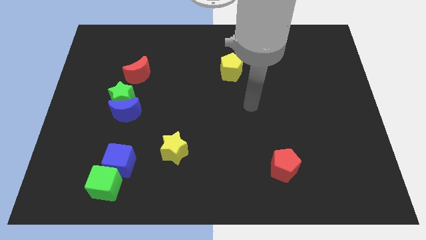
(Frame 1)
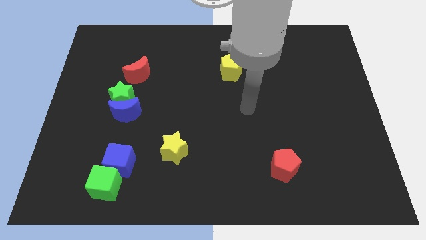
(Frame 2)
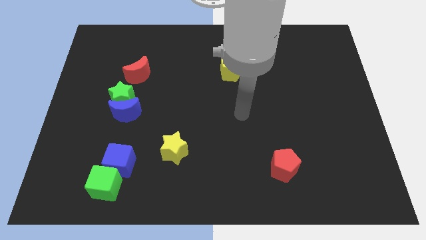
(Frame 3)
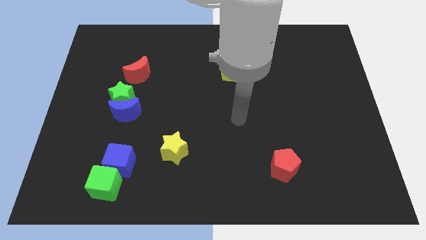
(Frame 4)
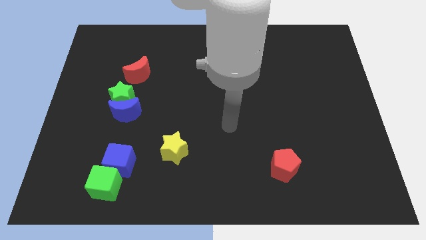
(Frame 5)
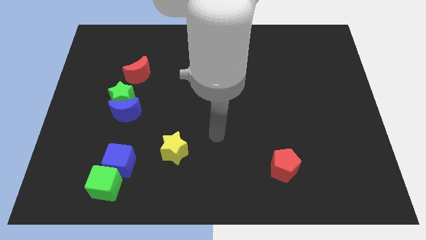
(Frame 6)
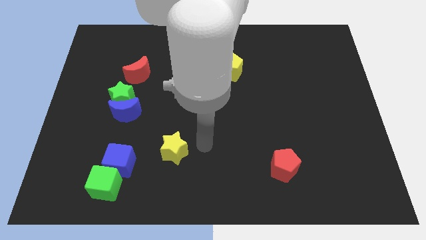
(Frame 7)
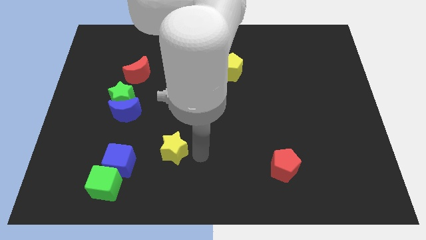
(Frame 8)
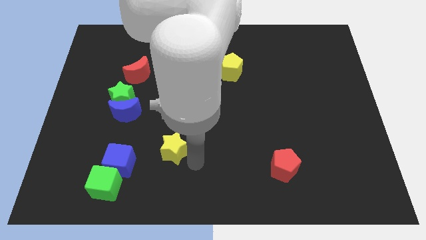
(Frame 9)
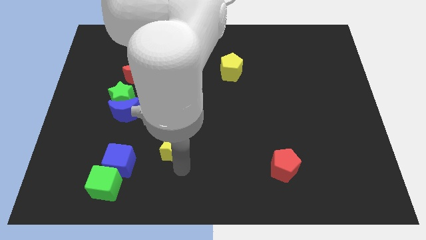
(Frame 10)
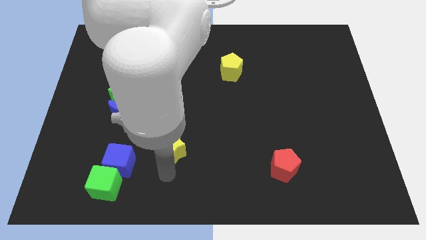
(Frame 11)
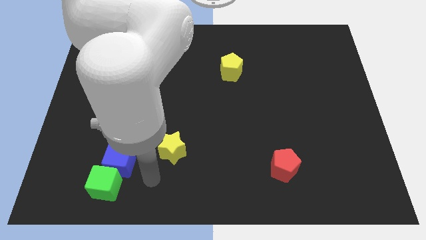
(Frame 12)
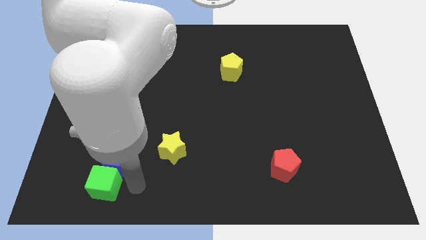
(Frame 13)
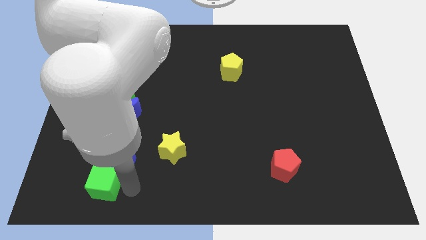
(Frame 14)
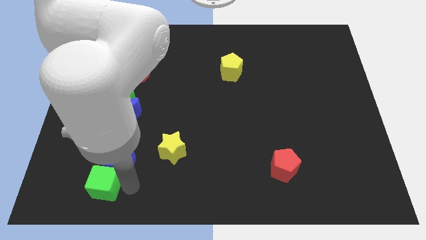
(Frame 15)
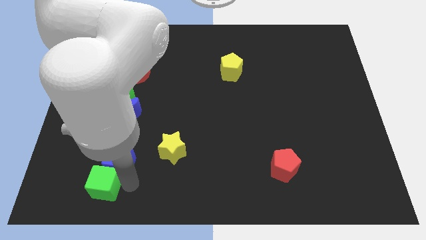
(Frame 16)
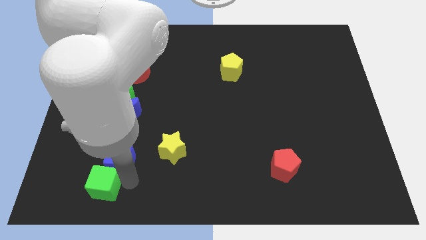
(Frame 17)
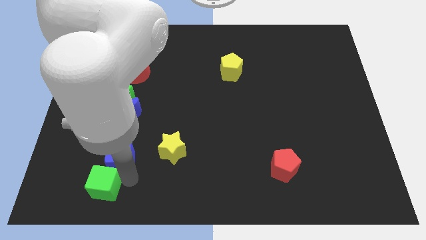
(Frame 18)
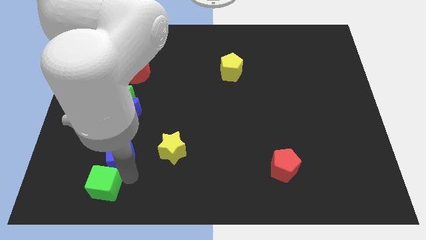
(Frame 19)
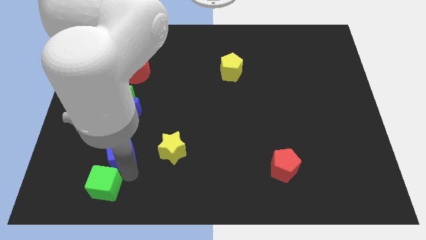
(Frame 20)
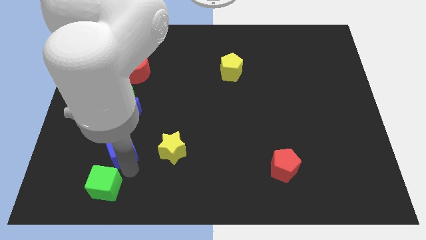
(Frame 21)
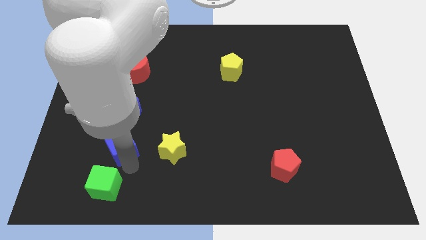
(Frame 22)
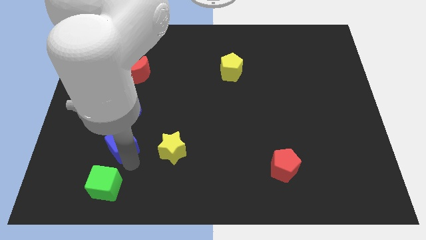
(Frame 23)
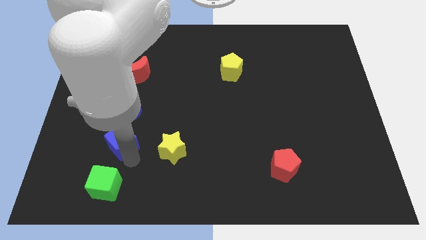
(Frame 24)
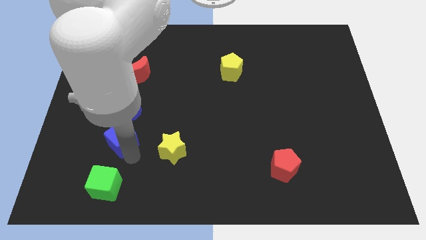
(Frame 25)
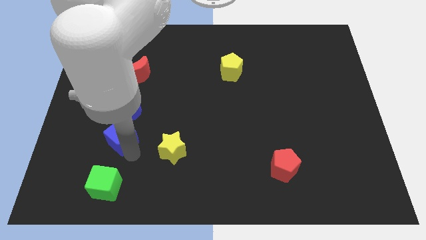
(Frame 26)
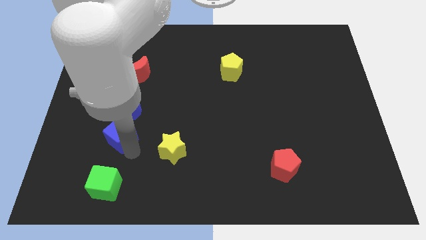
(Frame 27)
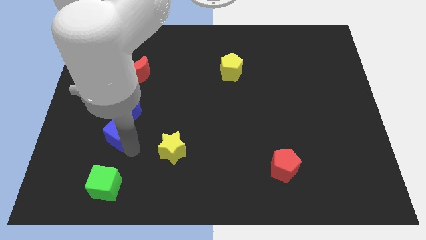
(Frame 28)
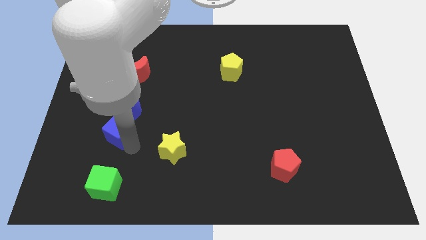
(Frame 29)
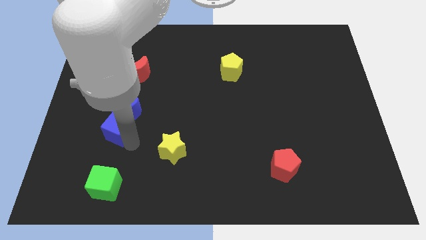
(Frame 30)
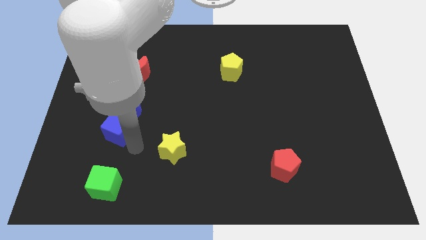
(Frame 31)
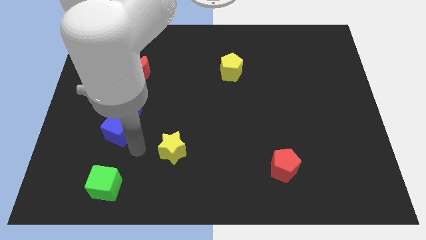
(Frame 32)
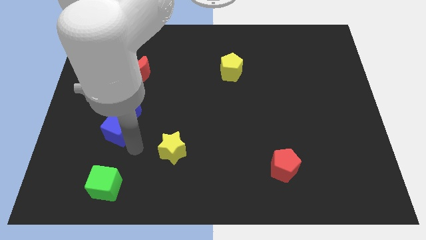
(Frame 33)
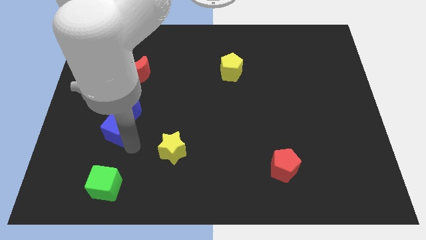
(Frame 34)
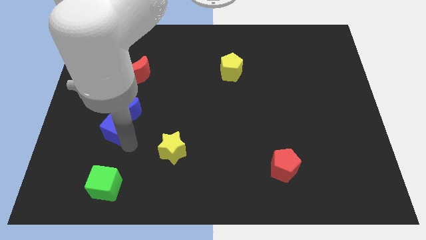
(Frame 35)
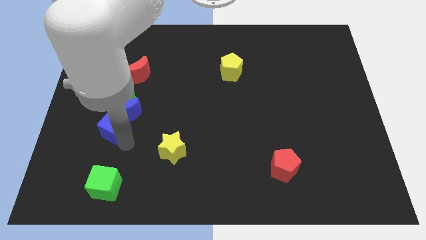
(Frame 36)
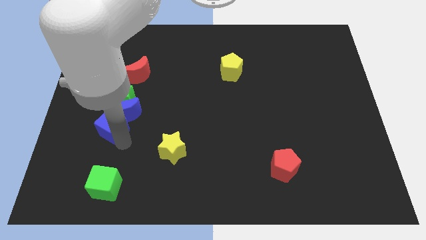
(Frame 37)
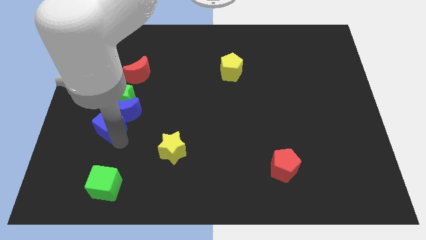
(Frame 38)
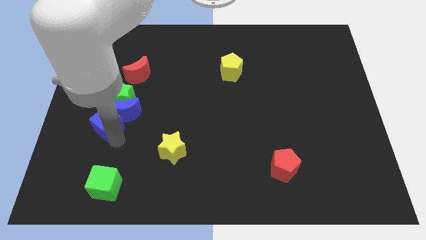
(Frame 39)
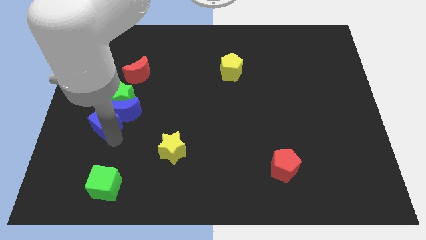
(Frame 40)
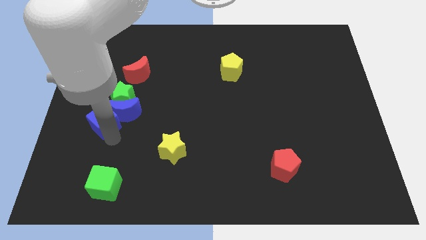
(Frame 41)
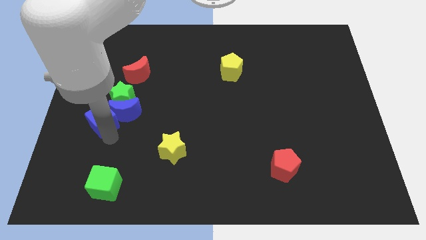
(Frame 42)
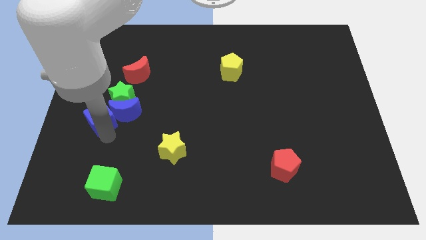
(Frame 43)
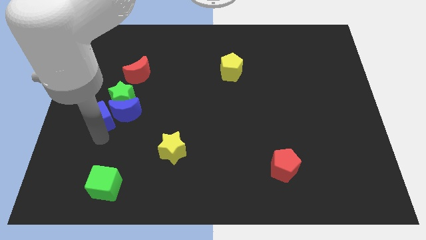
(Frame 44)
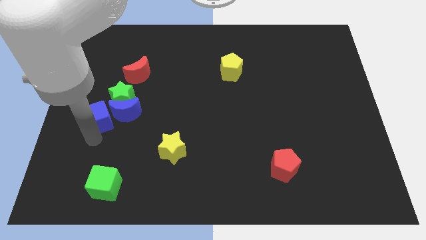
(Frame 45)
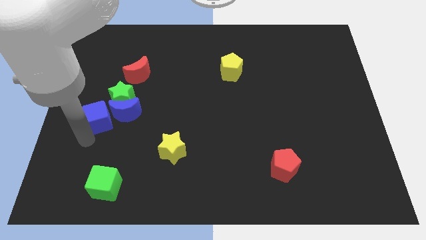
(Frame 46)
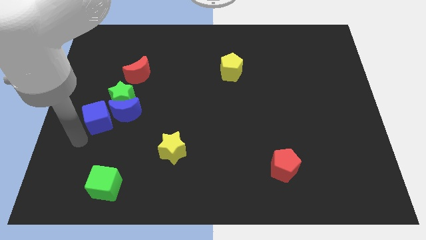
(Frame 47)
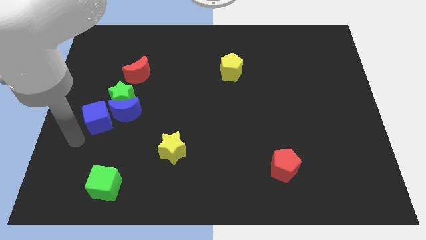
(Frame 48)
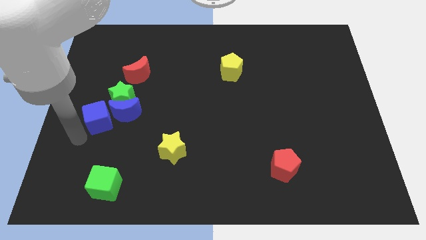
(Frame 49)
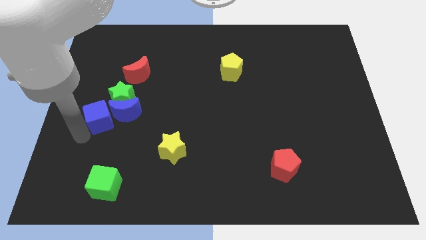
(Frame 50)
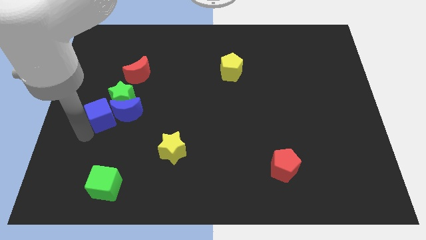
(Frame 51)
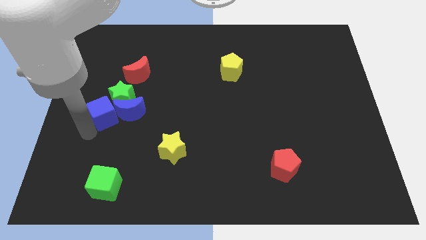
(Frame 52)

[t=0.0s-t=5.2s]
push the blue cube next to the green star

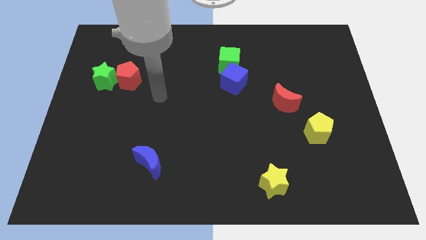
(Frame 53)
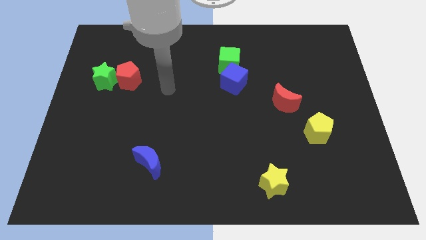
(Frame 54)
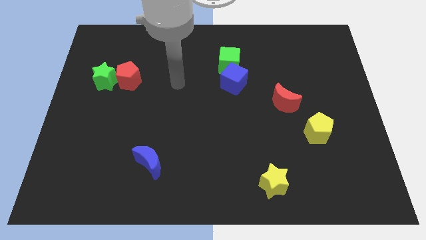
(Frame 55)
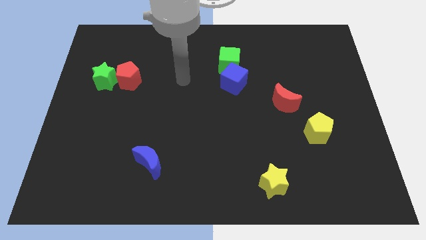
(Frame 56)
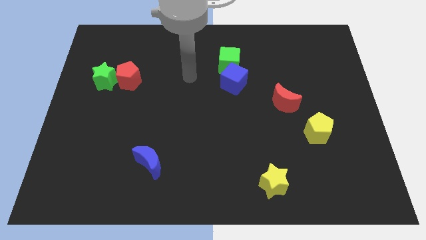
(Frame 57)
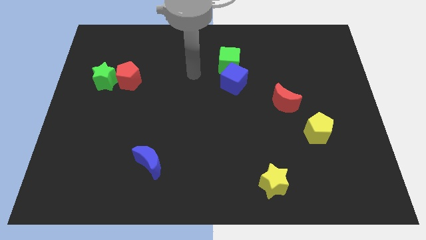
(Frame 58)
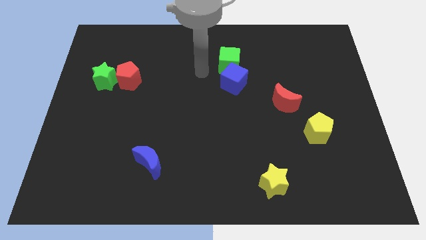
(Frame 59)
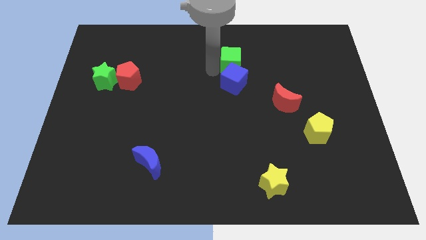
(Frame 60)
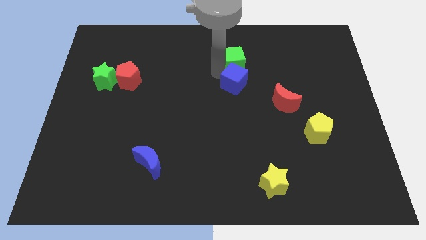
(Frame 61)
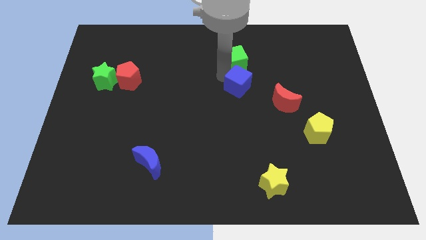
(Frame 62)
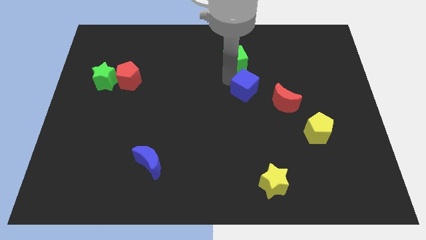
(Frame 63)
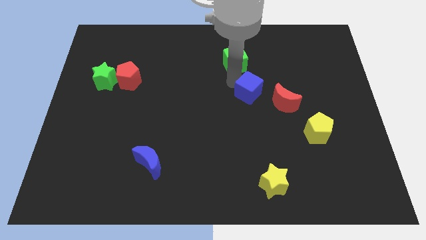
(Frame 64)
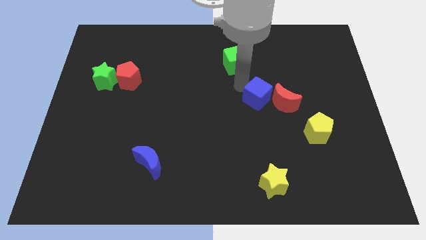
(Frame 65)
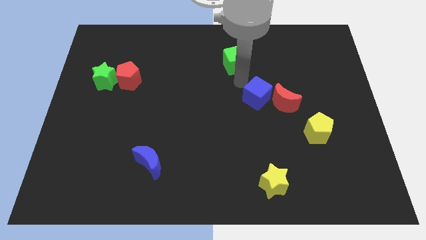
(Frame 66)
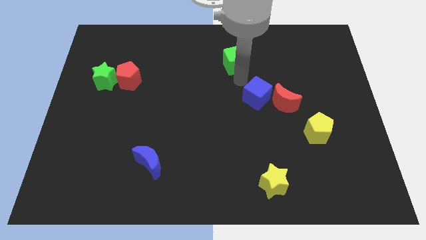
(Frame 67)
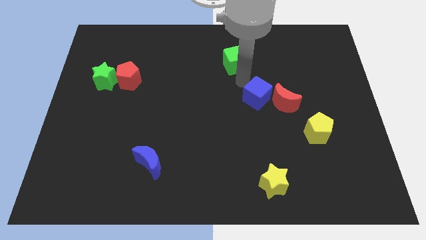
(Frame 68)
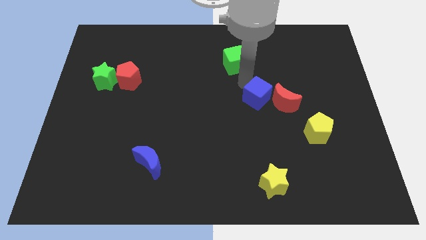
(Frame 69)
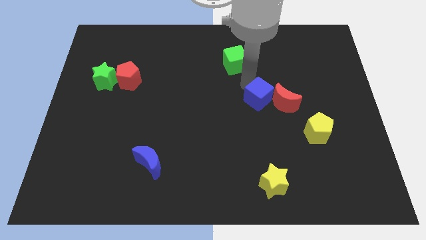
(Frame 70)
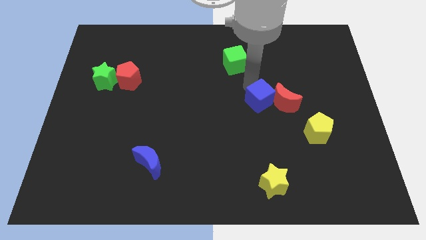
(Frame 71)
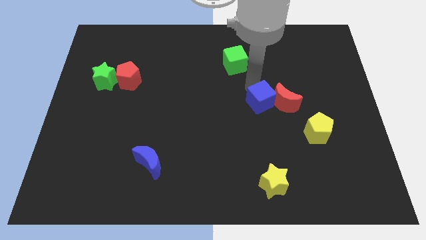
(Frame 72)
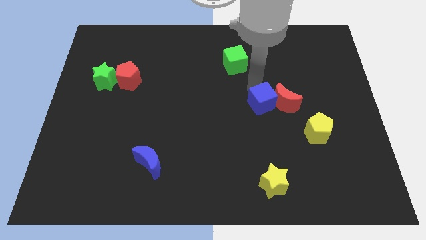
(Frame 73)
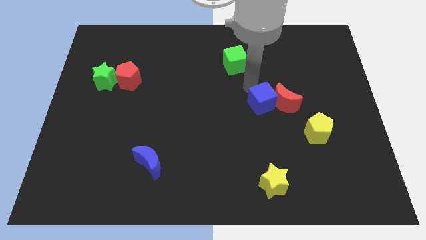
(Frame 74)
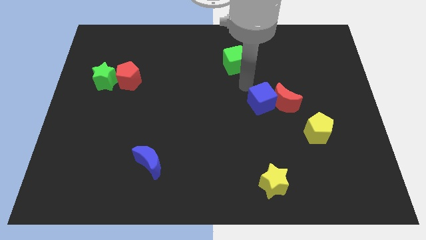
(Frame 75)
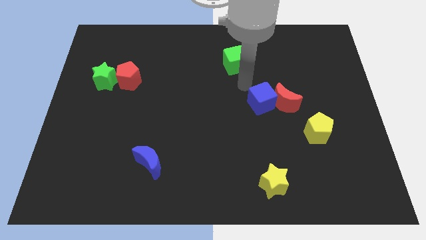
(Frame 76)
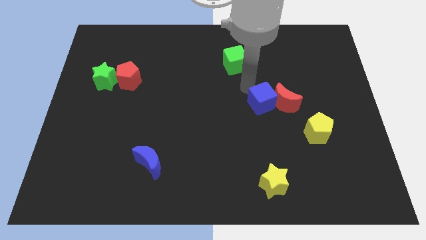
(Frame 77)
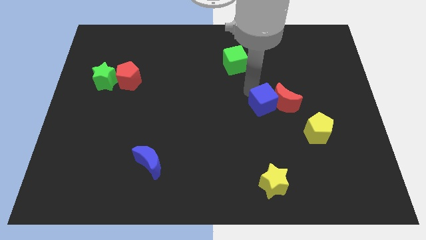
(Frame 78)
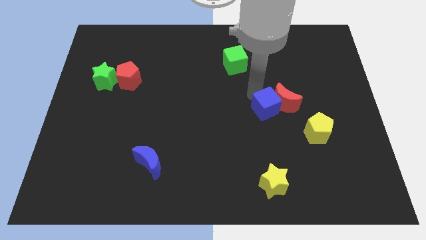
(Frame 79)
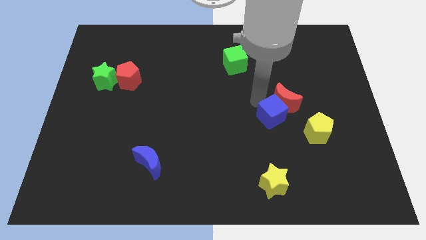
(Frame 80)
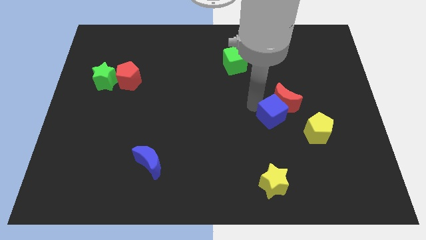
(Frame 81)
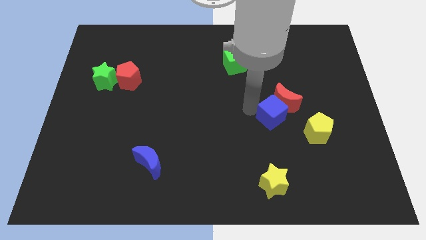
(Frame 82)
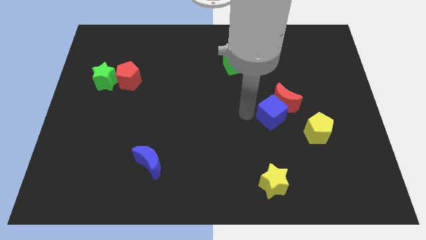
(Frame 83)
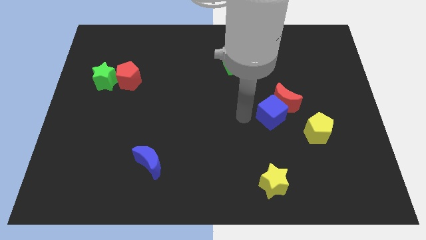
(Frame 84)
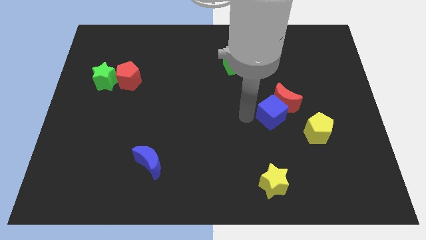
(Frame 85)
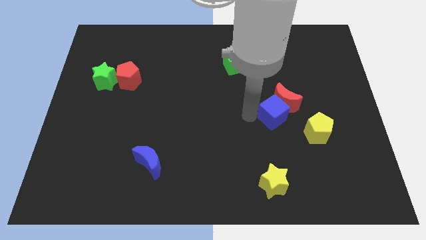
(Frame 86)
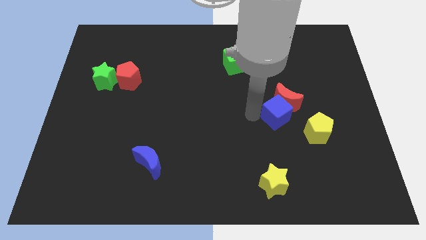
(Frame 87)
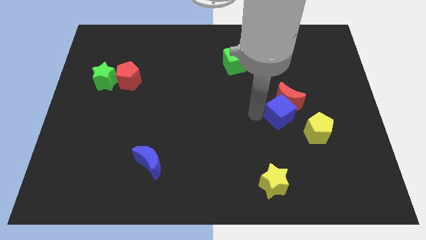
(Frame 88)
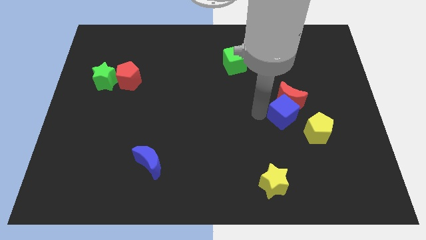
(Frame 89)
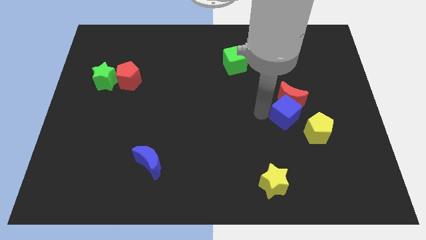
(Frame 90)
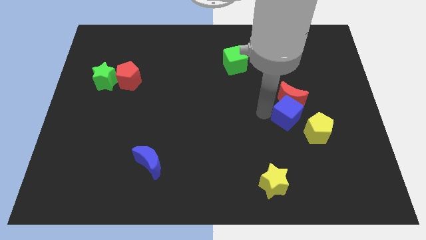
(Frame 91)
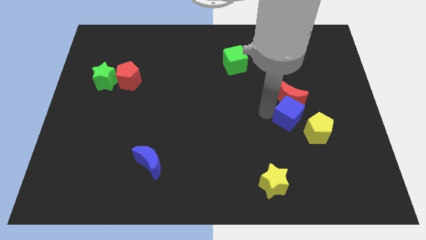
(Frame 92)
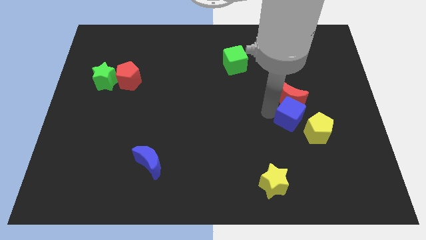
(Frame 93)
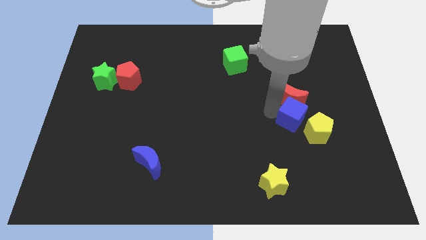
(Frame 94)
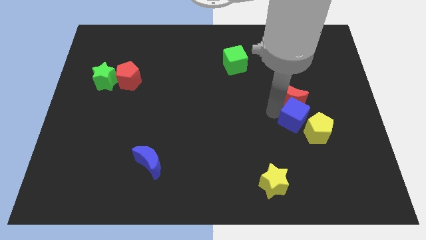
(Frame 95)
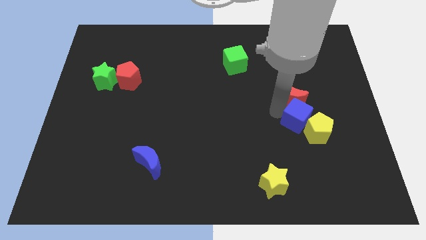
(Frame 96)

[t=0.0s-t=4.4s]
put the blue cube to the yellow pentagon
